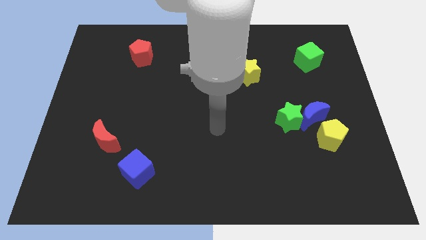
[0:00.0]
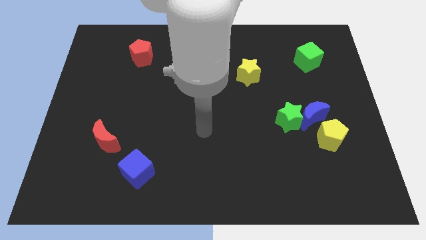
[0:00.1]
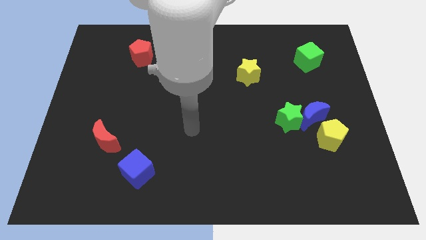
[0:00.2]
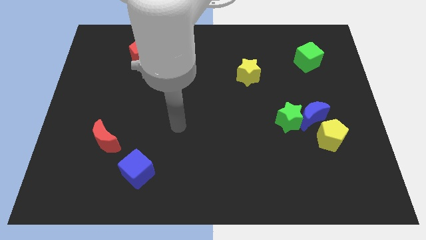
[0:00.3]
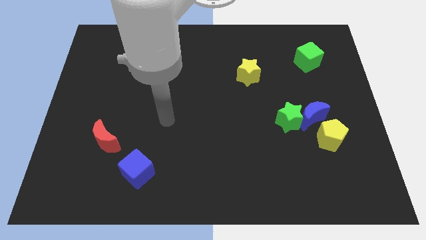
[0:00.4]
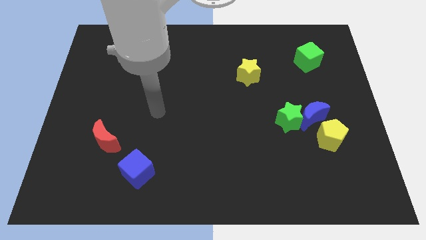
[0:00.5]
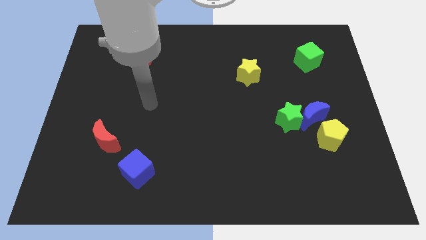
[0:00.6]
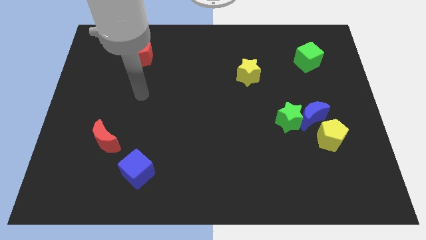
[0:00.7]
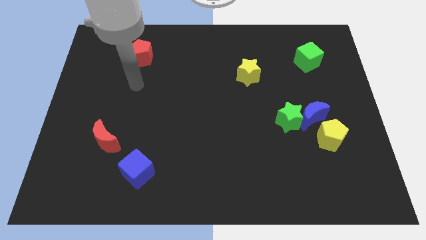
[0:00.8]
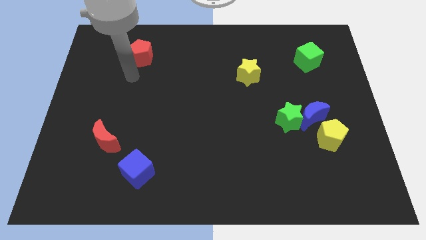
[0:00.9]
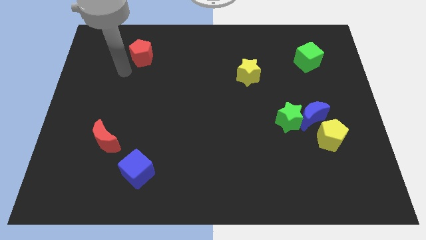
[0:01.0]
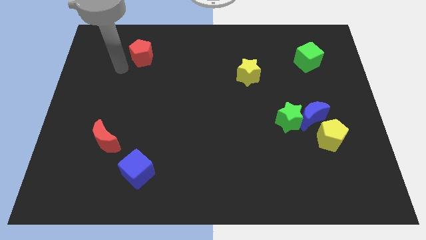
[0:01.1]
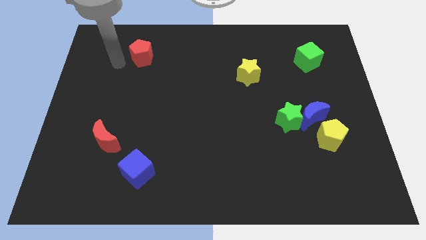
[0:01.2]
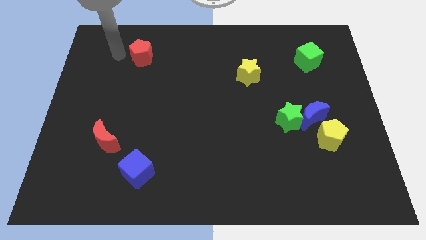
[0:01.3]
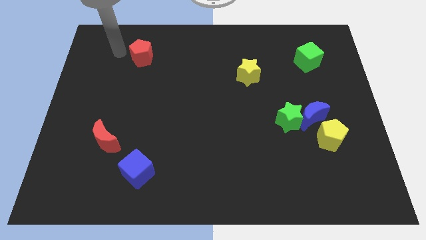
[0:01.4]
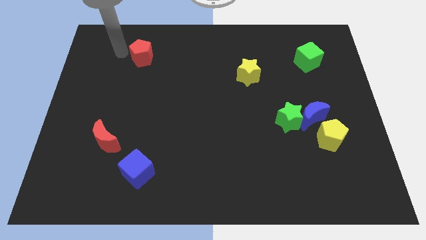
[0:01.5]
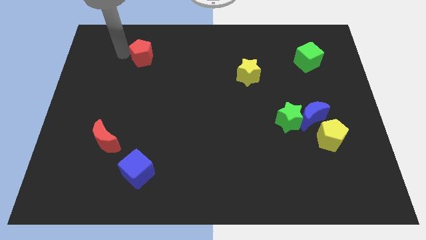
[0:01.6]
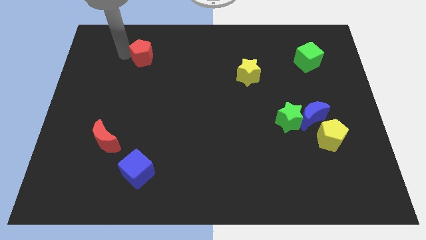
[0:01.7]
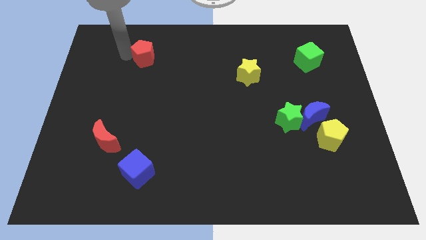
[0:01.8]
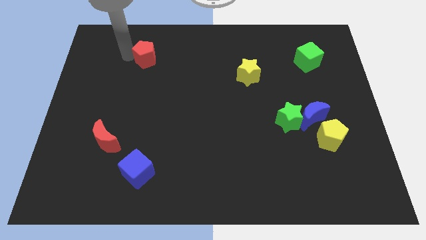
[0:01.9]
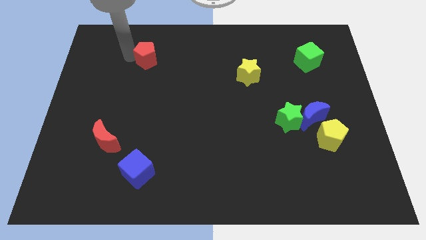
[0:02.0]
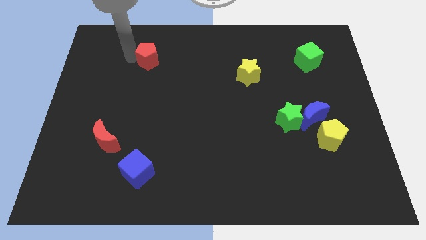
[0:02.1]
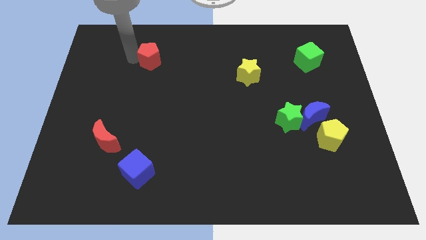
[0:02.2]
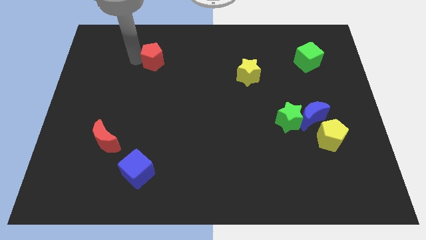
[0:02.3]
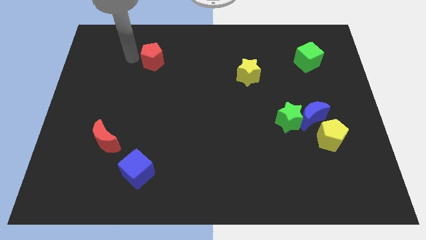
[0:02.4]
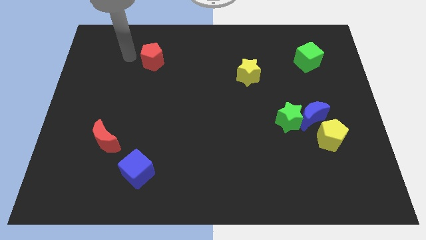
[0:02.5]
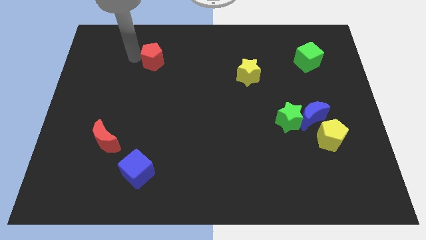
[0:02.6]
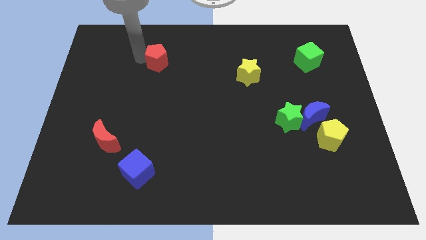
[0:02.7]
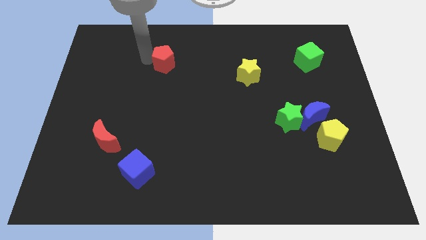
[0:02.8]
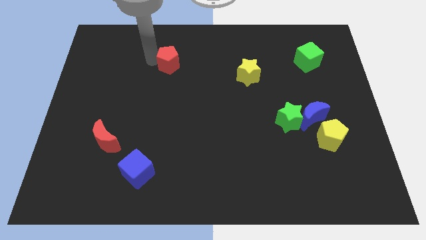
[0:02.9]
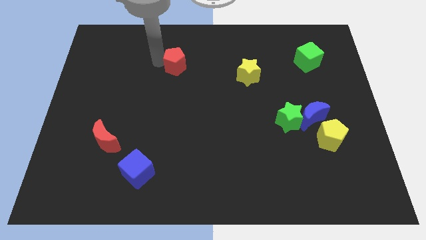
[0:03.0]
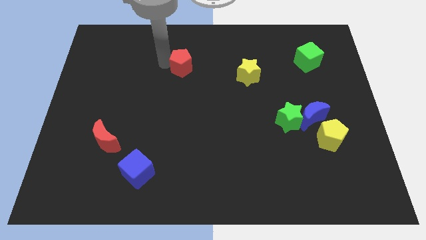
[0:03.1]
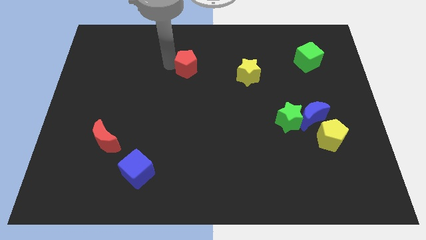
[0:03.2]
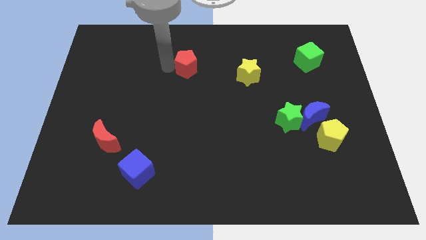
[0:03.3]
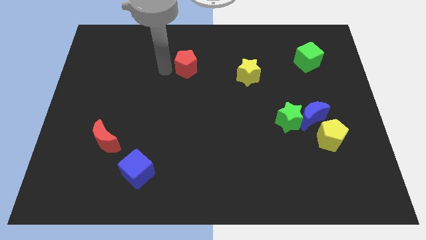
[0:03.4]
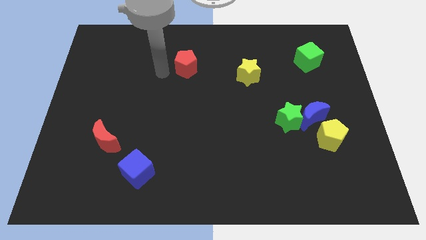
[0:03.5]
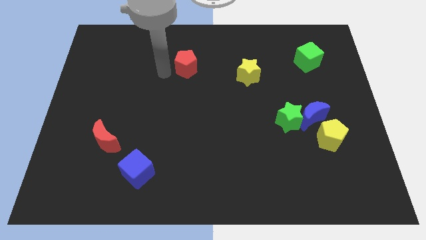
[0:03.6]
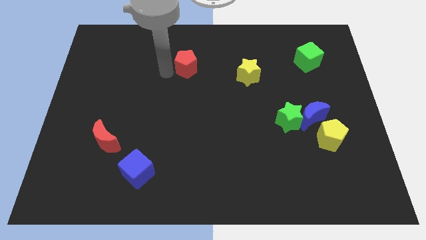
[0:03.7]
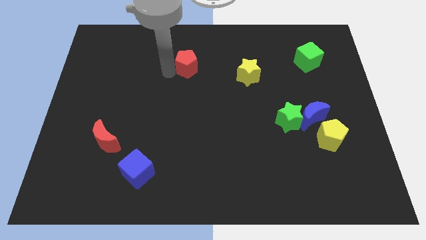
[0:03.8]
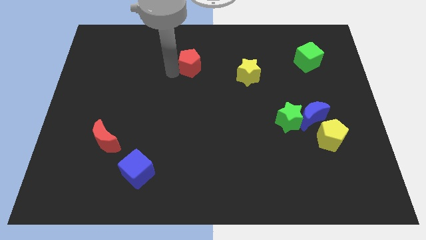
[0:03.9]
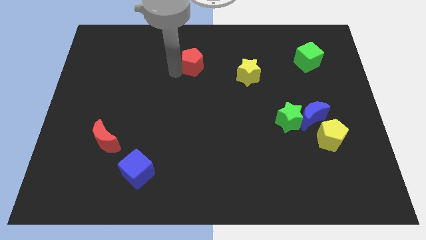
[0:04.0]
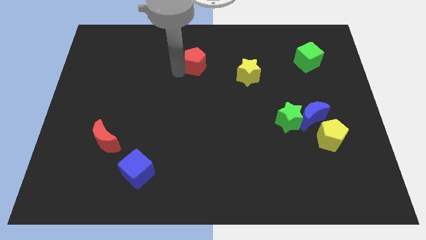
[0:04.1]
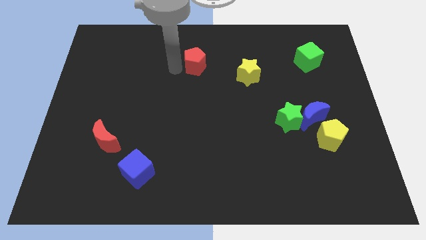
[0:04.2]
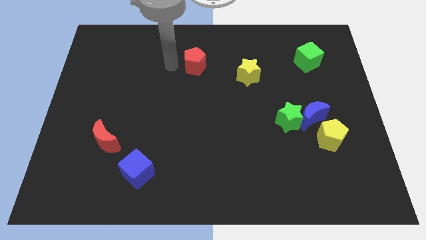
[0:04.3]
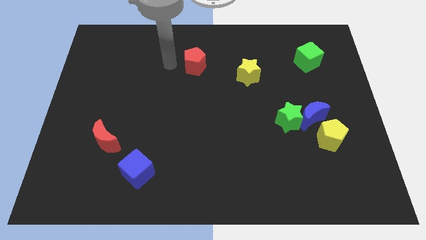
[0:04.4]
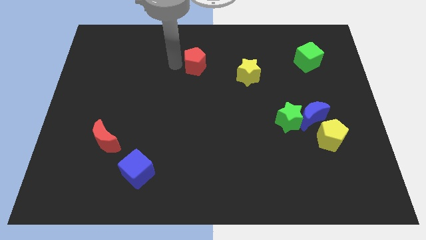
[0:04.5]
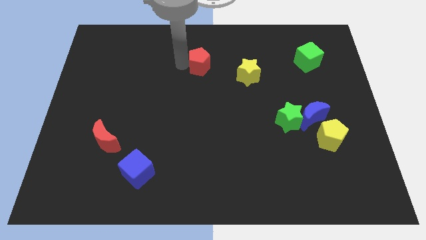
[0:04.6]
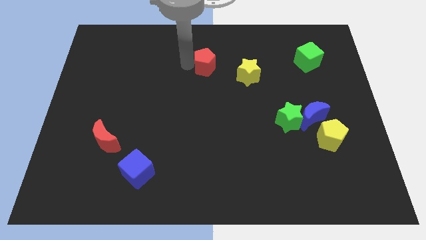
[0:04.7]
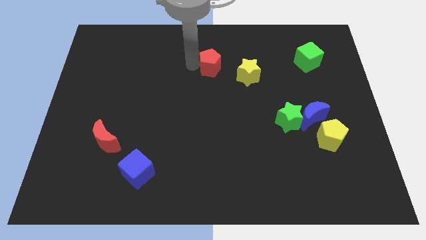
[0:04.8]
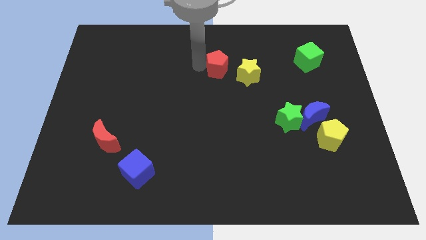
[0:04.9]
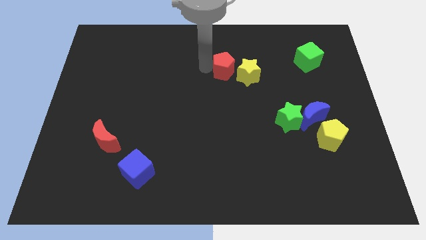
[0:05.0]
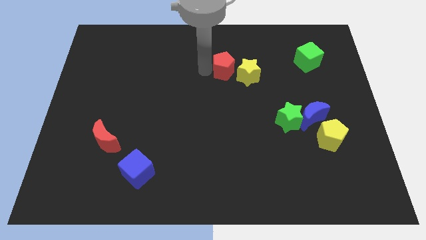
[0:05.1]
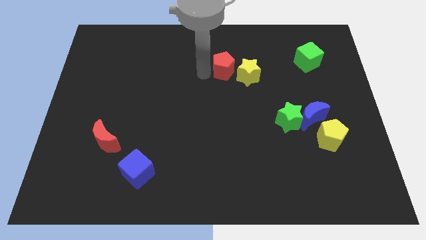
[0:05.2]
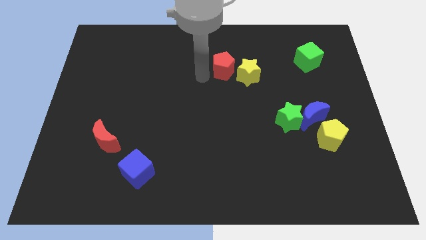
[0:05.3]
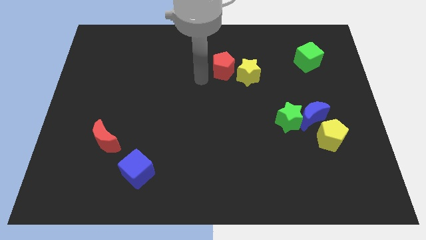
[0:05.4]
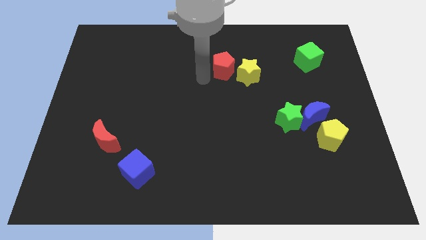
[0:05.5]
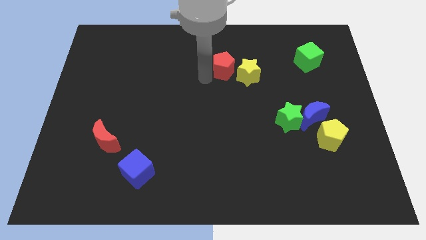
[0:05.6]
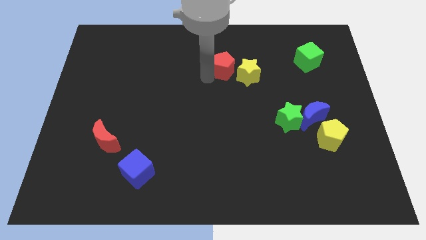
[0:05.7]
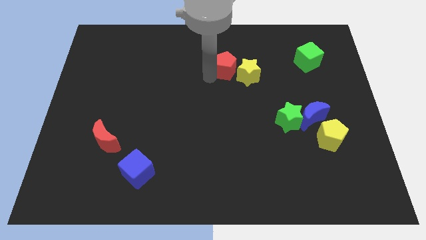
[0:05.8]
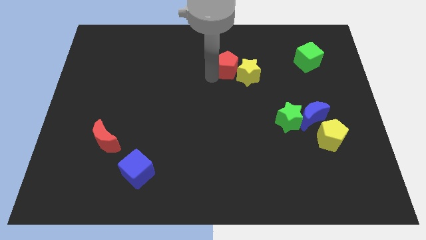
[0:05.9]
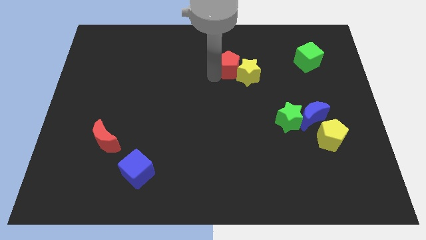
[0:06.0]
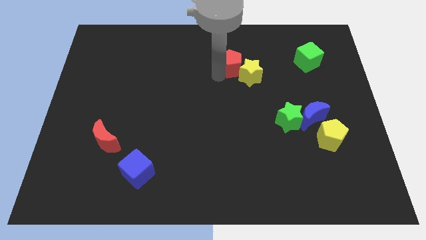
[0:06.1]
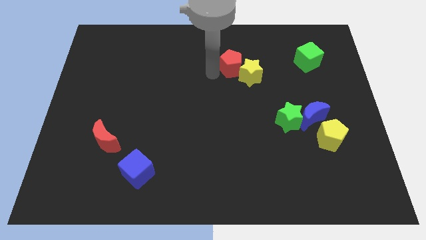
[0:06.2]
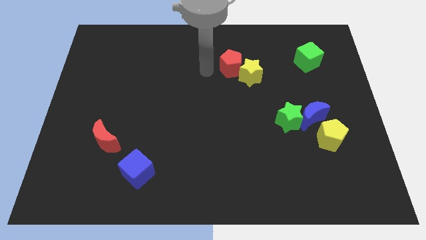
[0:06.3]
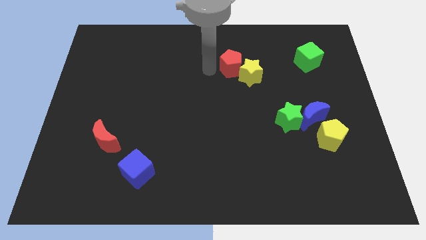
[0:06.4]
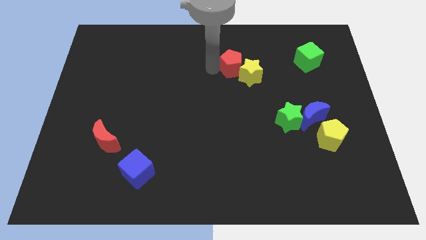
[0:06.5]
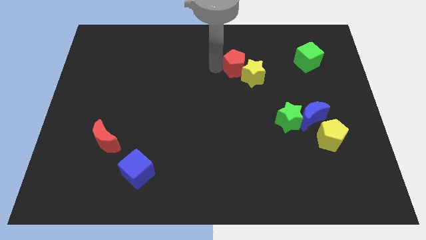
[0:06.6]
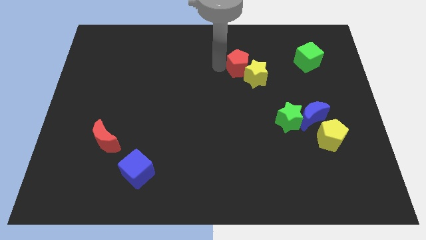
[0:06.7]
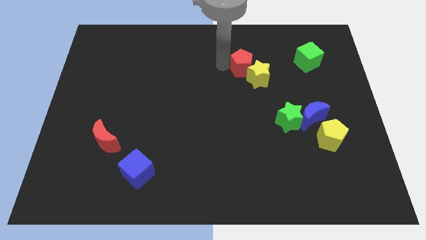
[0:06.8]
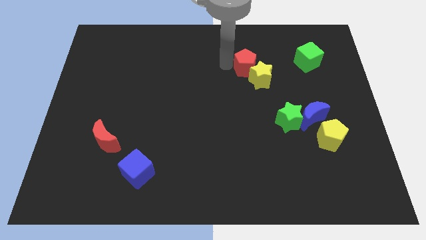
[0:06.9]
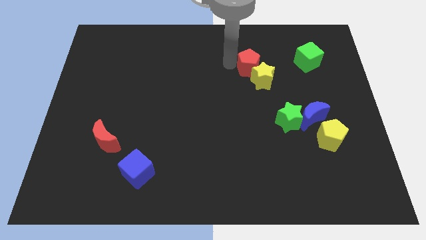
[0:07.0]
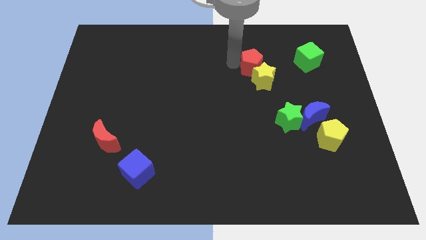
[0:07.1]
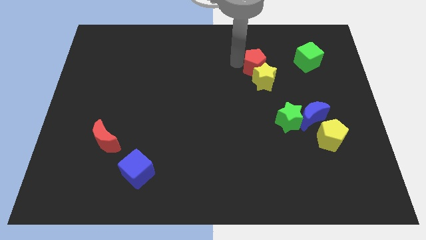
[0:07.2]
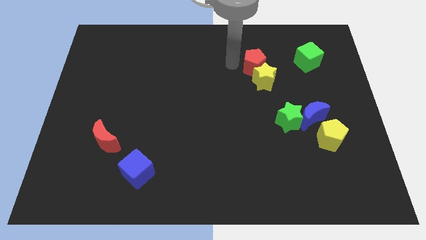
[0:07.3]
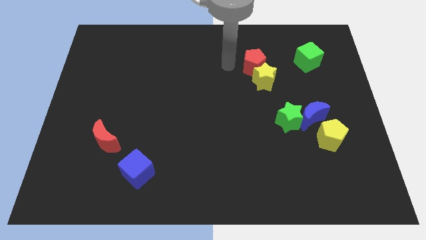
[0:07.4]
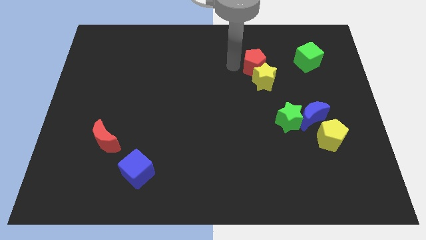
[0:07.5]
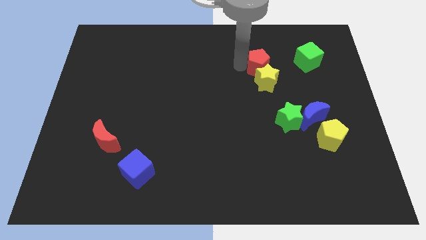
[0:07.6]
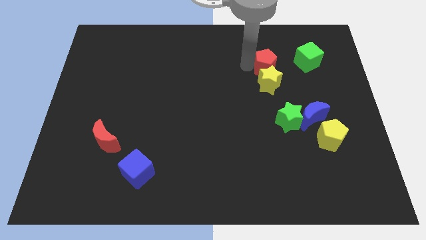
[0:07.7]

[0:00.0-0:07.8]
put the red pentagon to the top right of the yellow star
